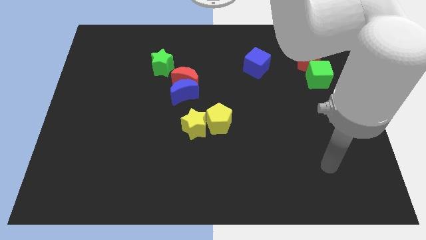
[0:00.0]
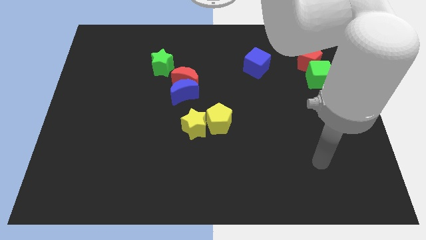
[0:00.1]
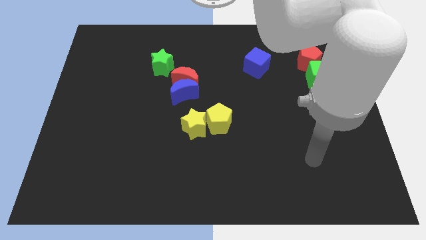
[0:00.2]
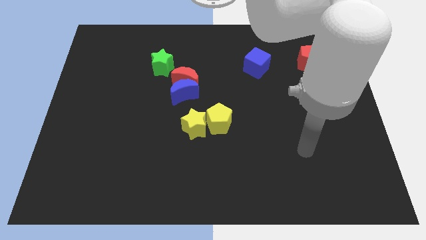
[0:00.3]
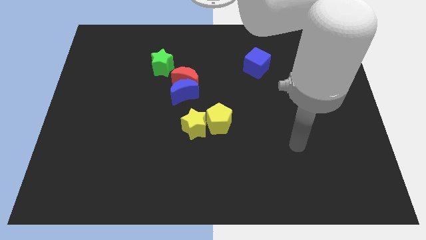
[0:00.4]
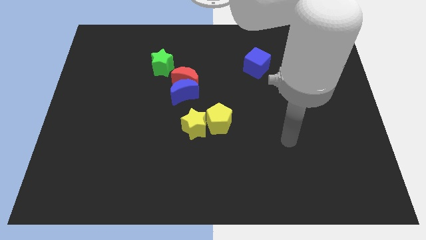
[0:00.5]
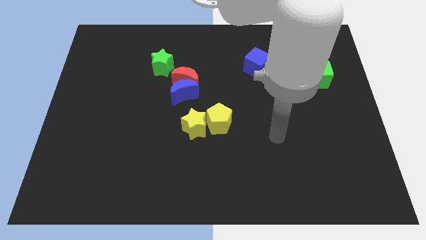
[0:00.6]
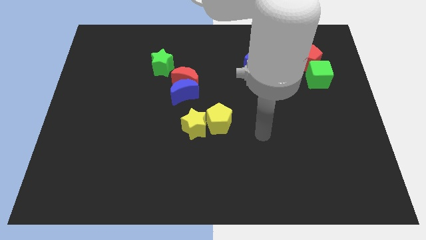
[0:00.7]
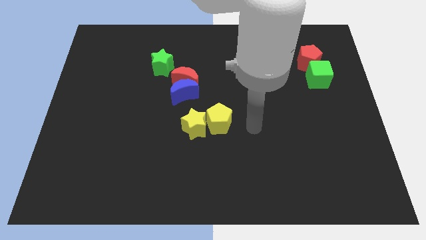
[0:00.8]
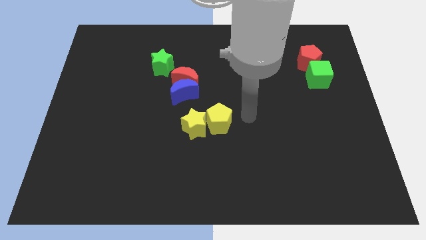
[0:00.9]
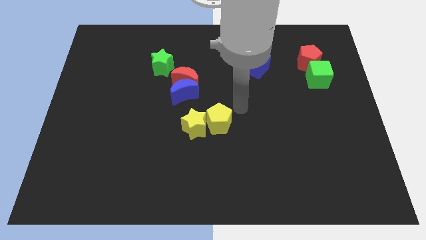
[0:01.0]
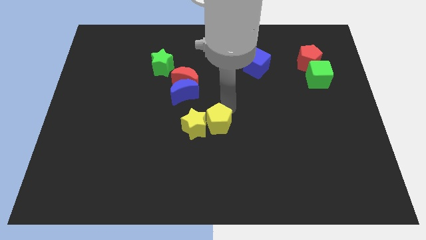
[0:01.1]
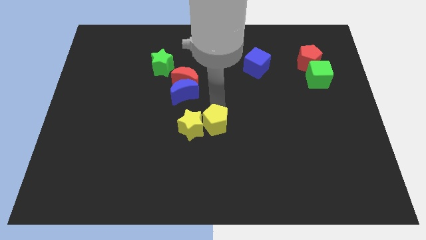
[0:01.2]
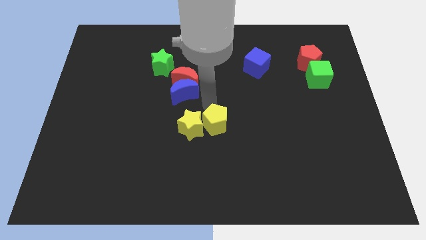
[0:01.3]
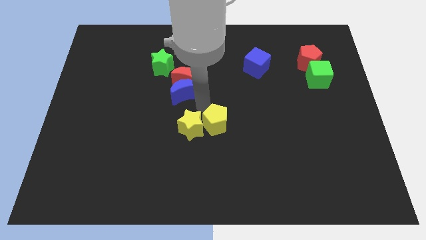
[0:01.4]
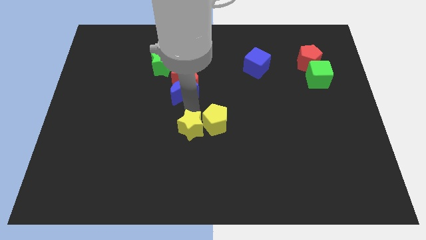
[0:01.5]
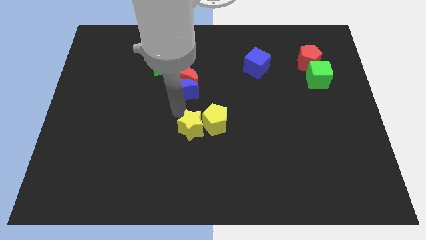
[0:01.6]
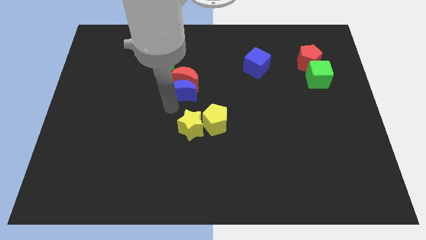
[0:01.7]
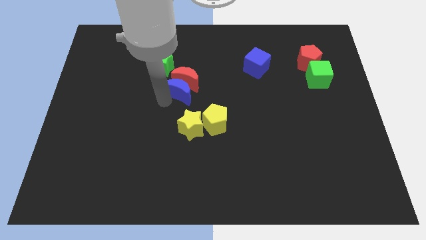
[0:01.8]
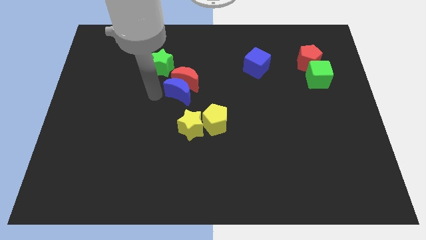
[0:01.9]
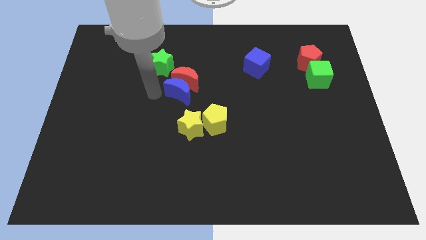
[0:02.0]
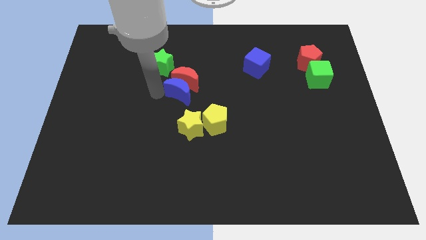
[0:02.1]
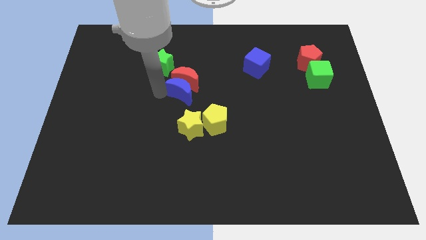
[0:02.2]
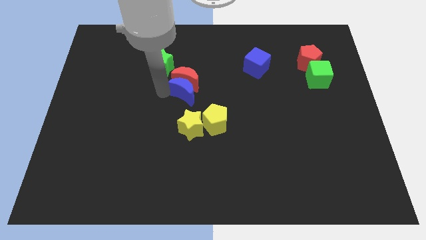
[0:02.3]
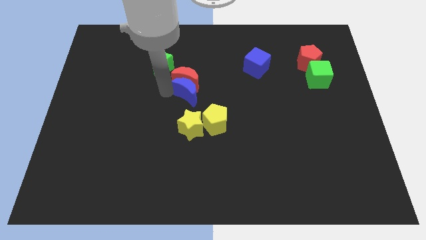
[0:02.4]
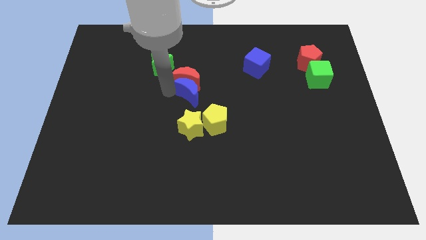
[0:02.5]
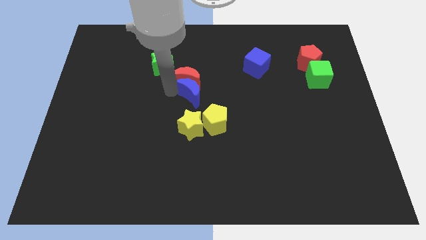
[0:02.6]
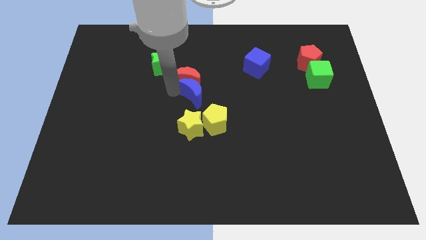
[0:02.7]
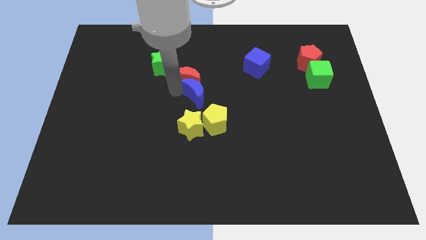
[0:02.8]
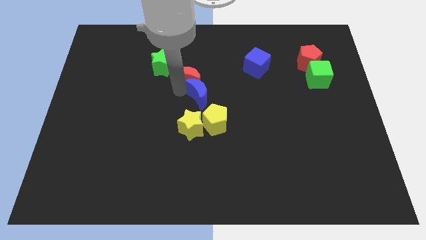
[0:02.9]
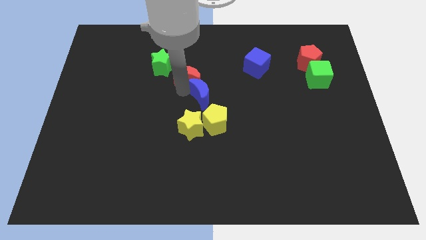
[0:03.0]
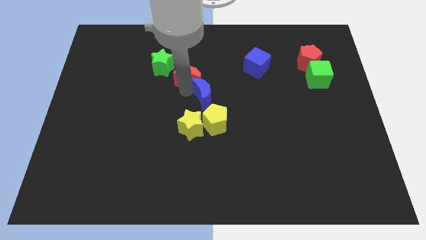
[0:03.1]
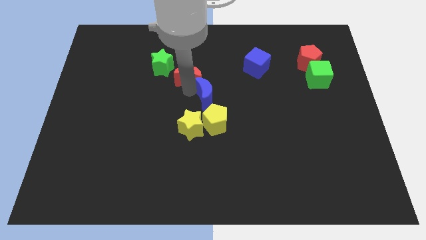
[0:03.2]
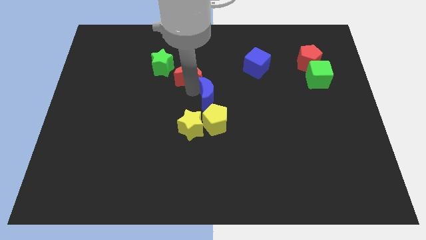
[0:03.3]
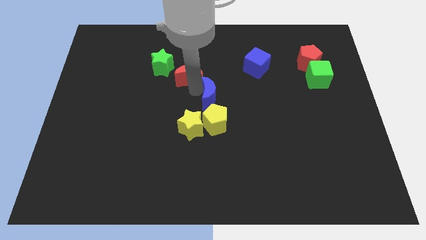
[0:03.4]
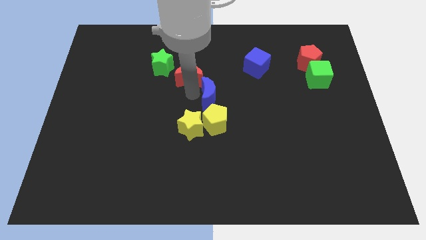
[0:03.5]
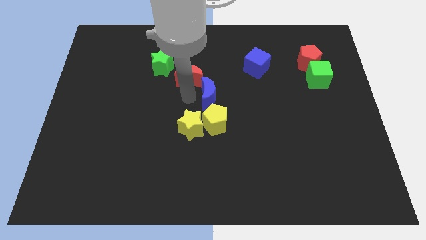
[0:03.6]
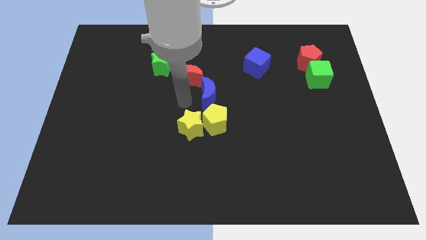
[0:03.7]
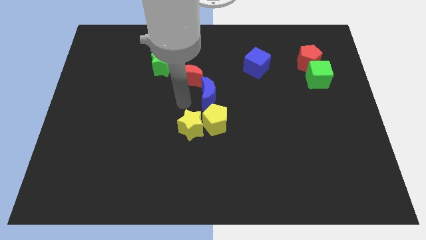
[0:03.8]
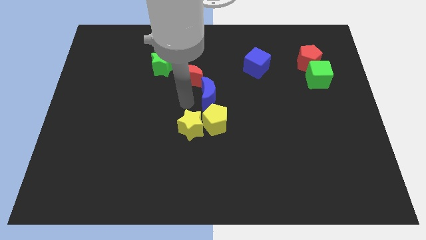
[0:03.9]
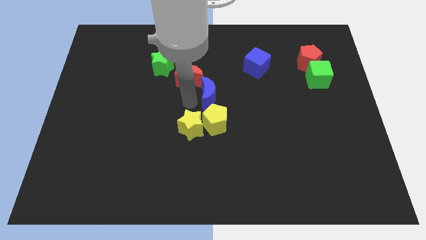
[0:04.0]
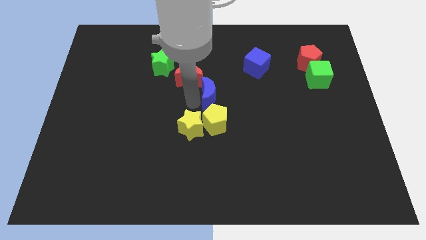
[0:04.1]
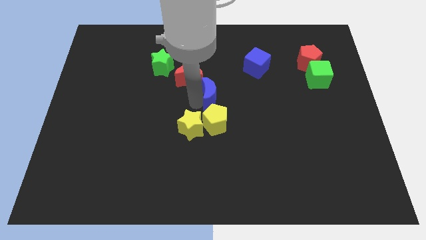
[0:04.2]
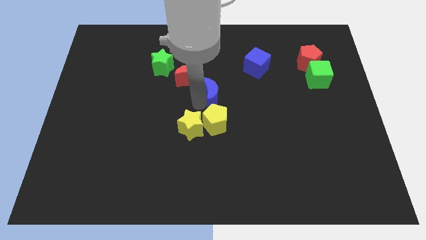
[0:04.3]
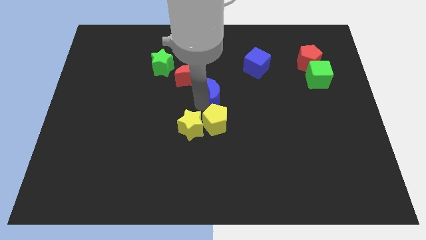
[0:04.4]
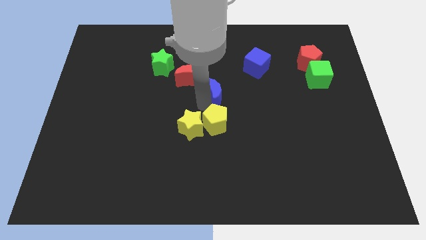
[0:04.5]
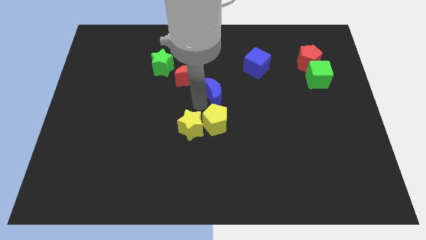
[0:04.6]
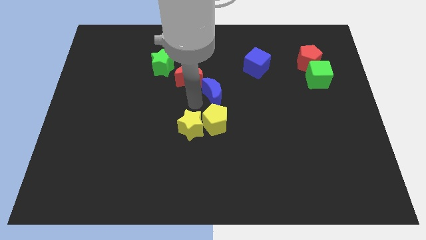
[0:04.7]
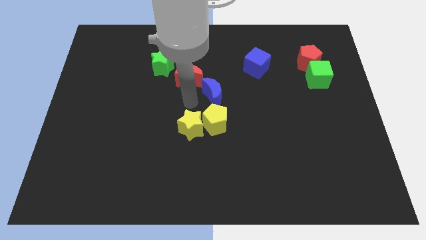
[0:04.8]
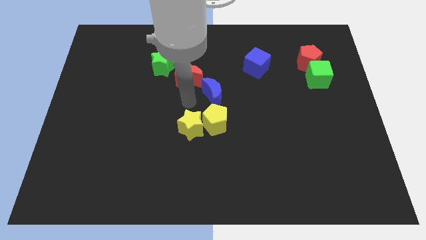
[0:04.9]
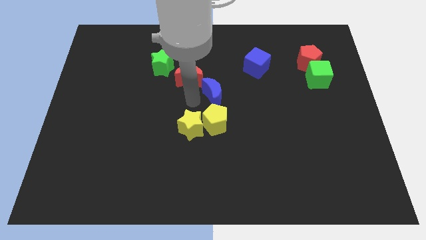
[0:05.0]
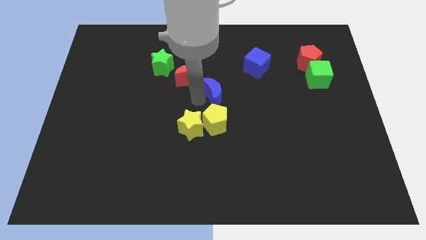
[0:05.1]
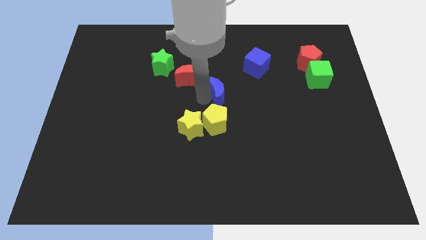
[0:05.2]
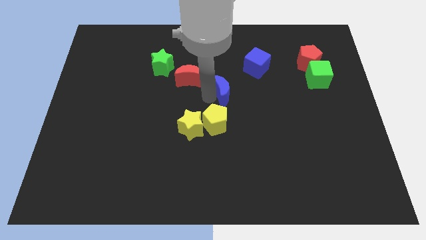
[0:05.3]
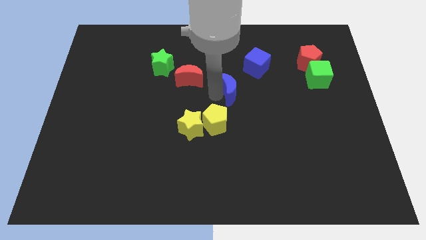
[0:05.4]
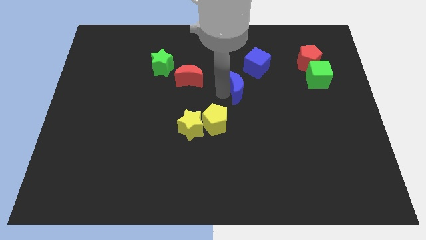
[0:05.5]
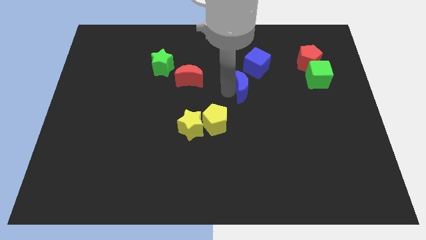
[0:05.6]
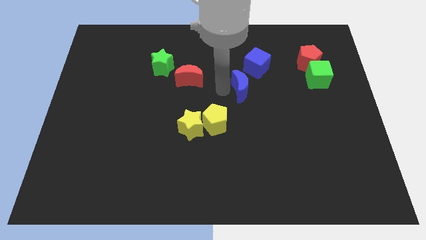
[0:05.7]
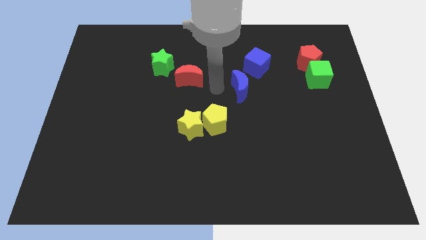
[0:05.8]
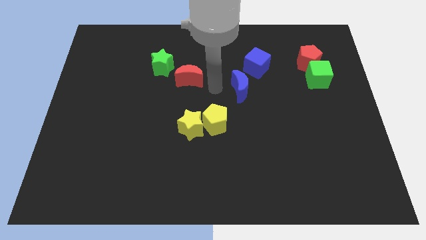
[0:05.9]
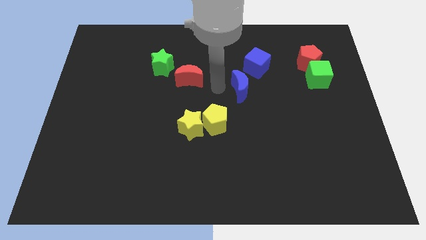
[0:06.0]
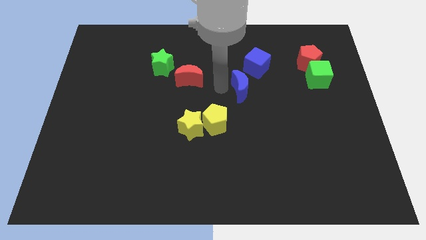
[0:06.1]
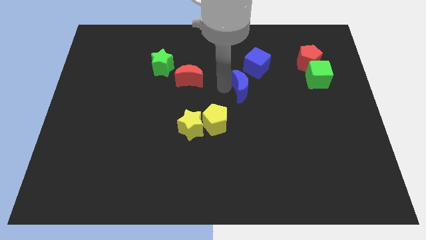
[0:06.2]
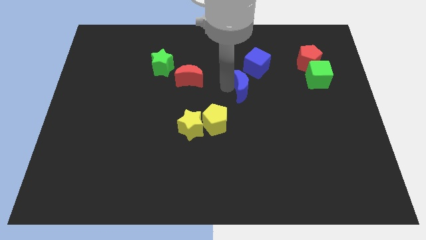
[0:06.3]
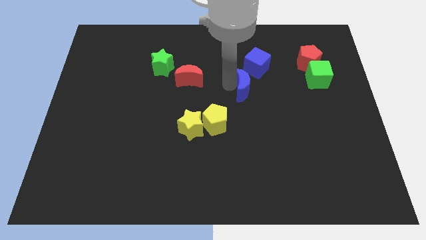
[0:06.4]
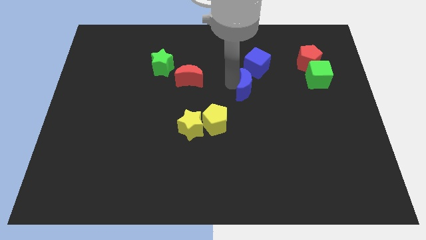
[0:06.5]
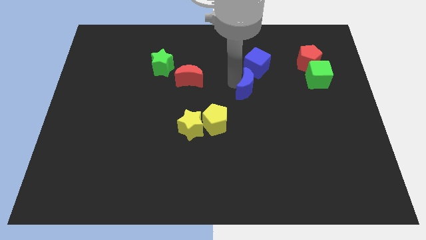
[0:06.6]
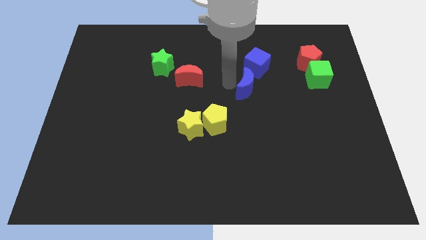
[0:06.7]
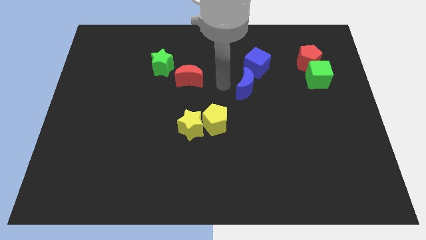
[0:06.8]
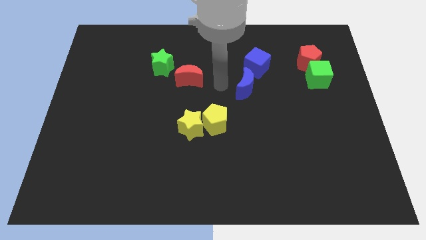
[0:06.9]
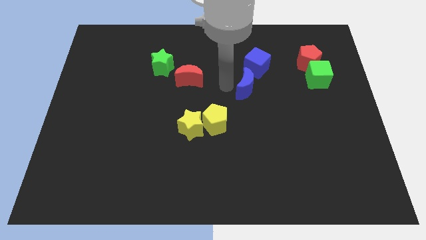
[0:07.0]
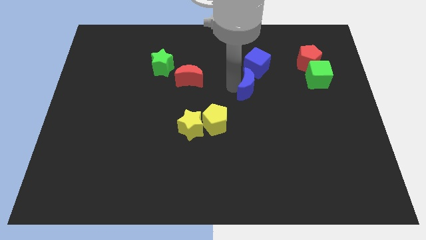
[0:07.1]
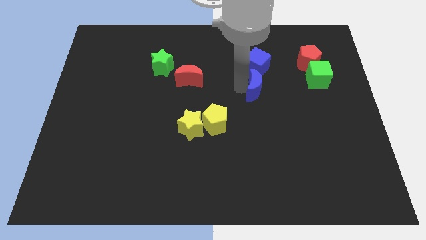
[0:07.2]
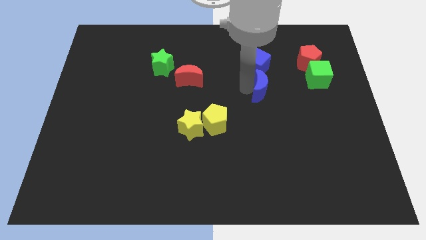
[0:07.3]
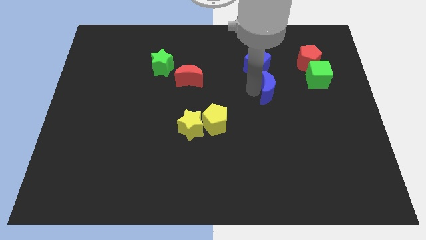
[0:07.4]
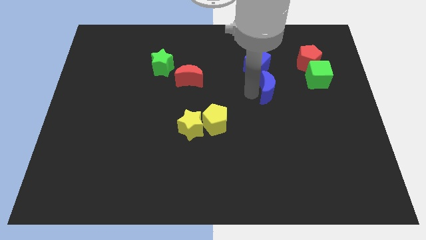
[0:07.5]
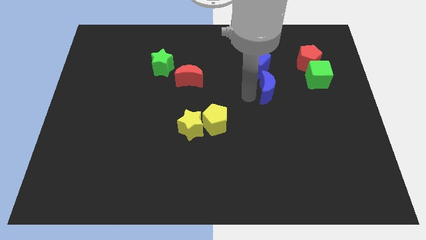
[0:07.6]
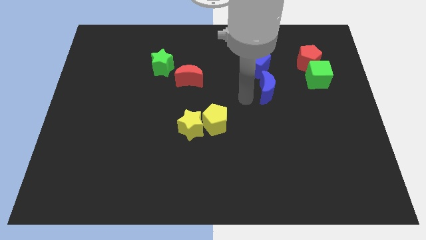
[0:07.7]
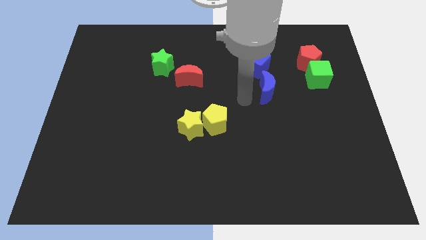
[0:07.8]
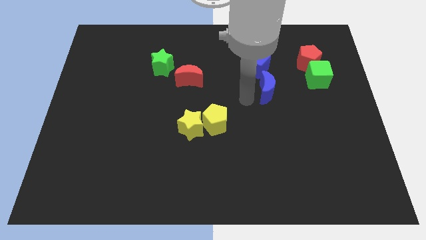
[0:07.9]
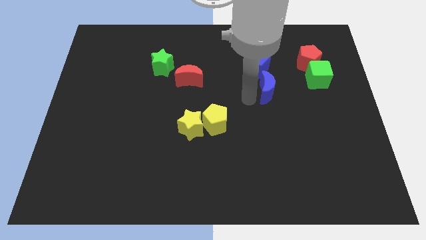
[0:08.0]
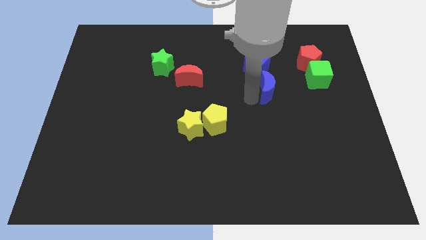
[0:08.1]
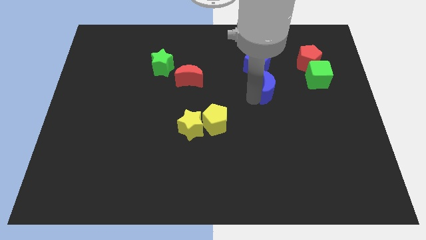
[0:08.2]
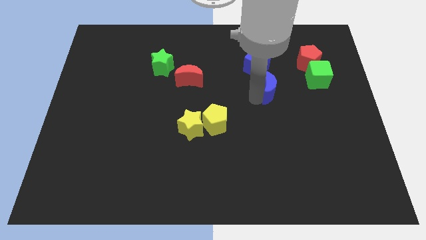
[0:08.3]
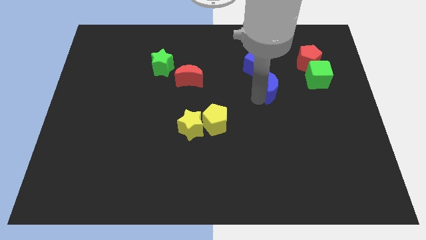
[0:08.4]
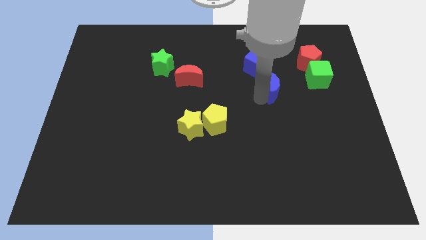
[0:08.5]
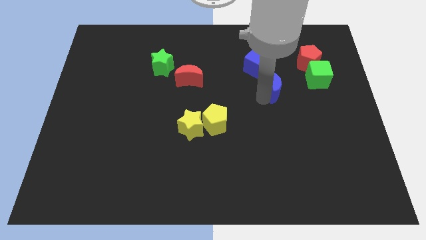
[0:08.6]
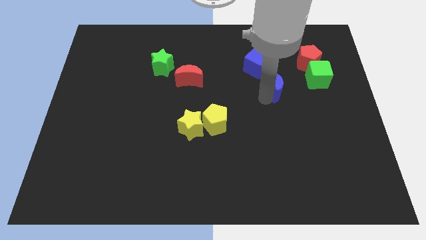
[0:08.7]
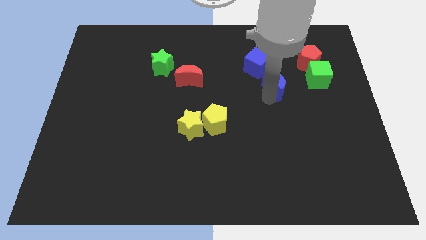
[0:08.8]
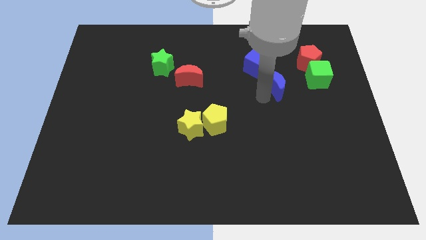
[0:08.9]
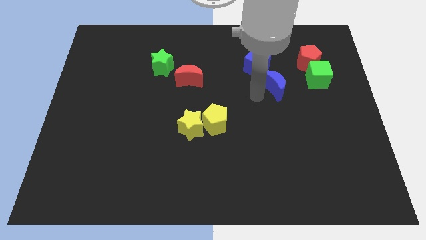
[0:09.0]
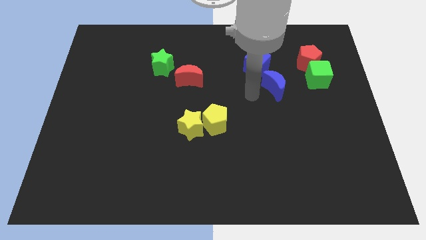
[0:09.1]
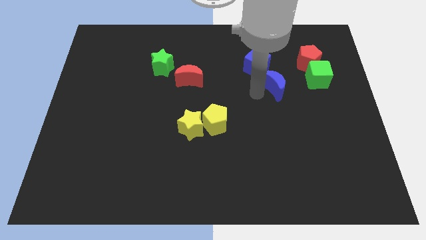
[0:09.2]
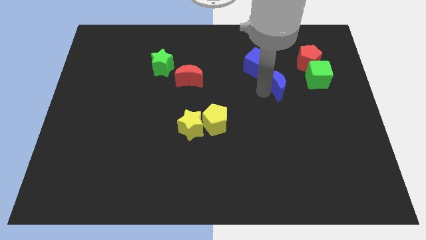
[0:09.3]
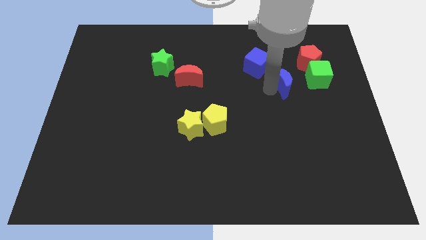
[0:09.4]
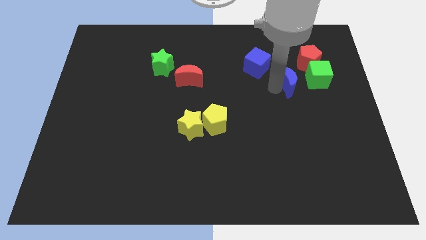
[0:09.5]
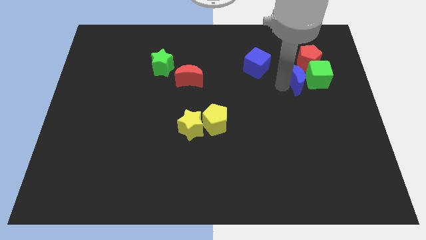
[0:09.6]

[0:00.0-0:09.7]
put the blue moon close to the green cube
